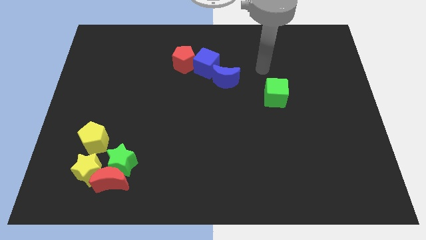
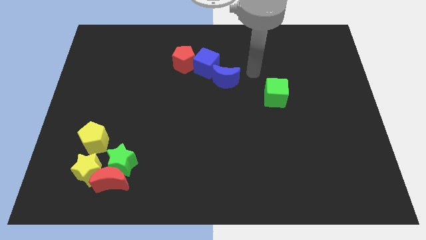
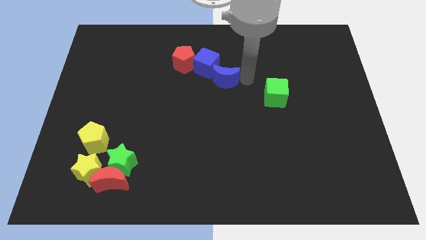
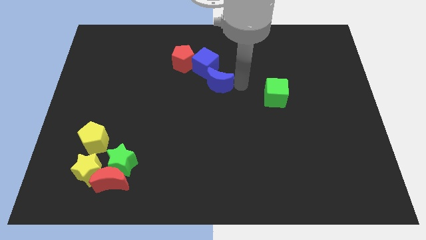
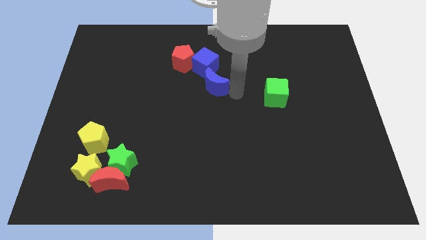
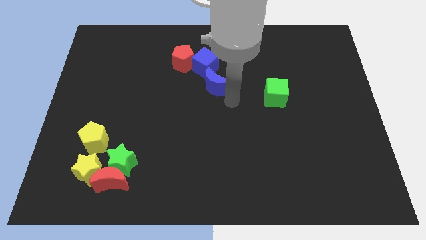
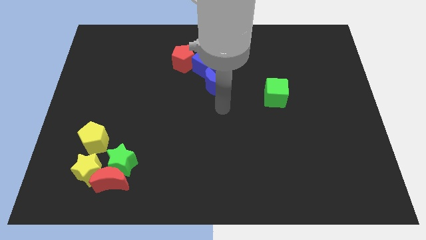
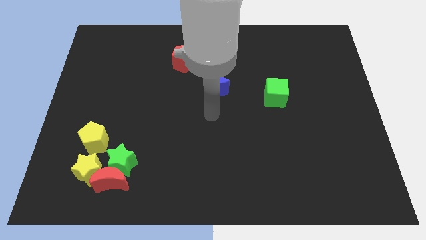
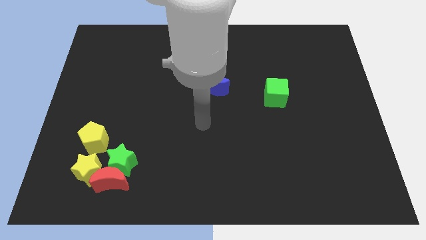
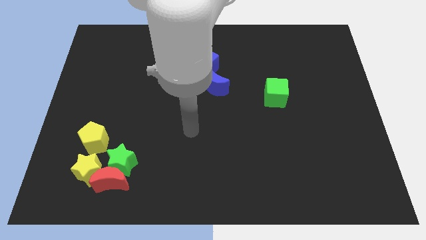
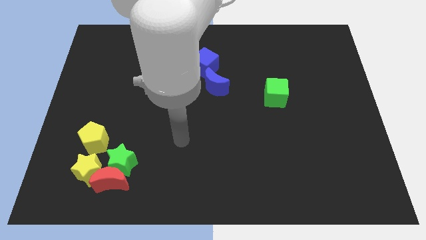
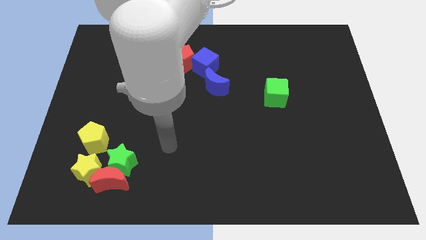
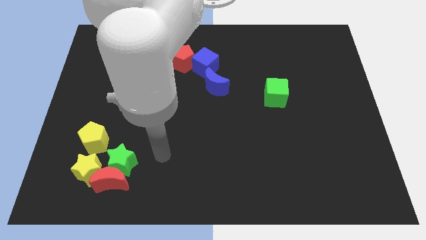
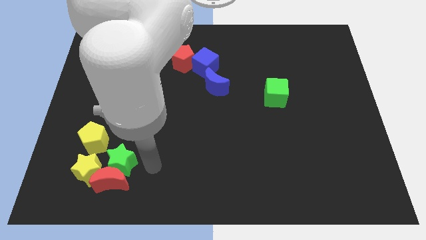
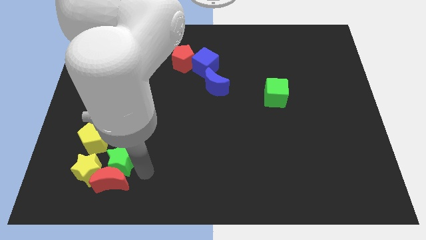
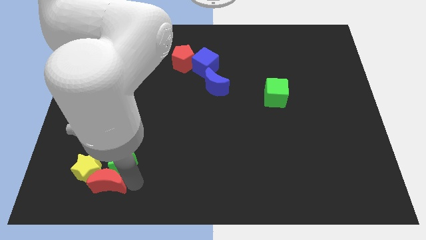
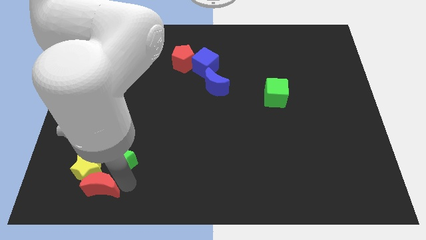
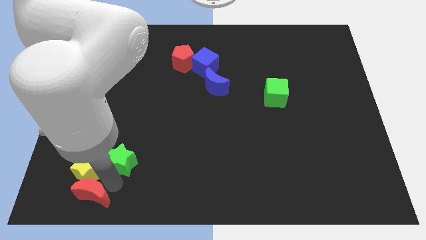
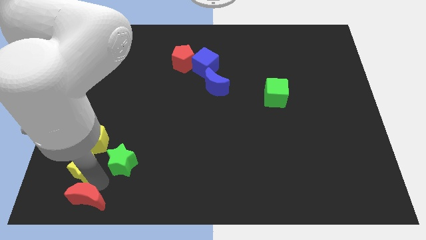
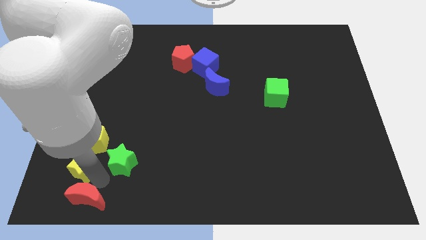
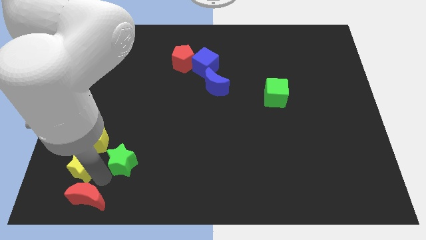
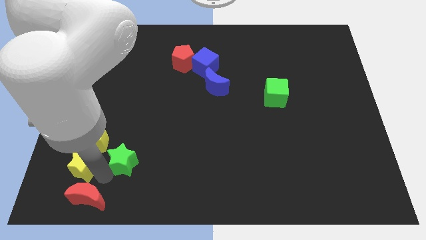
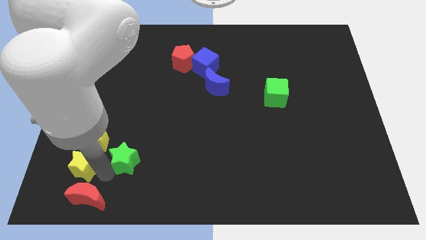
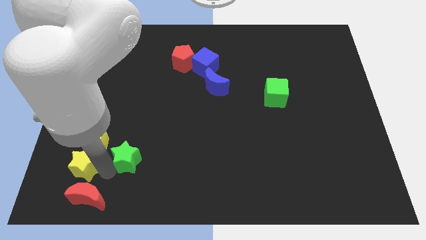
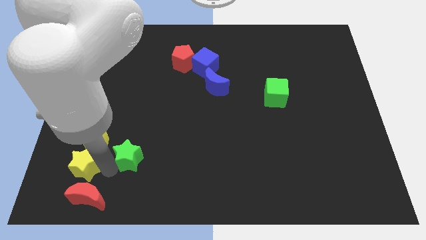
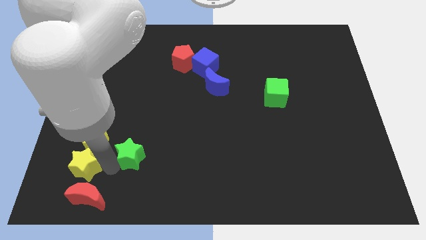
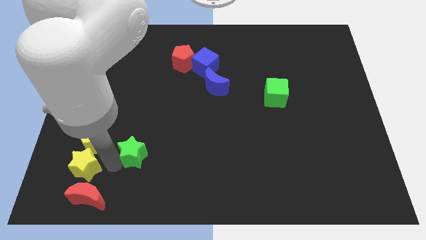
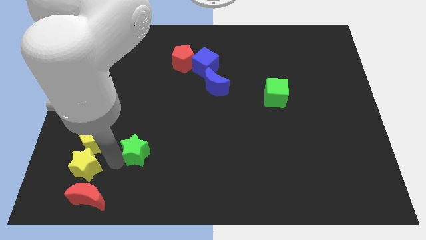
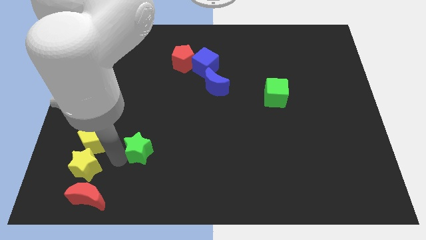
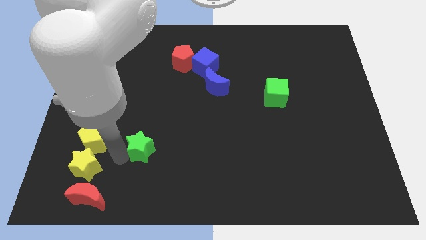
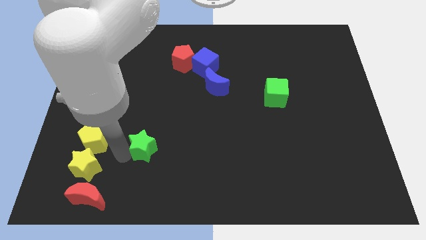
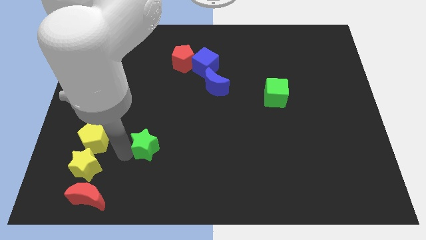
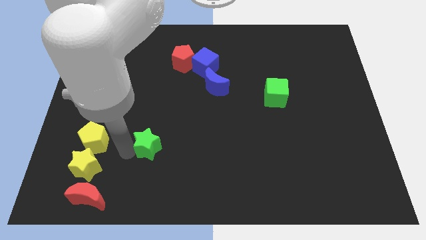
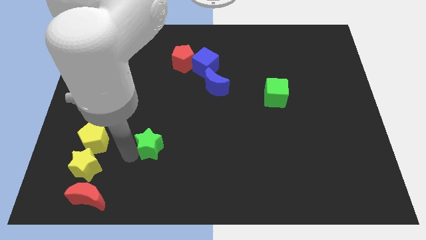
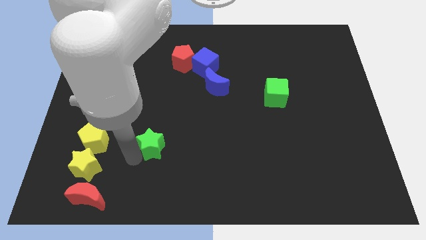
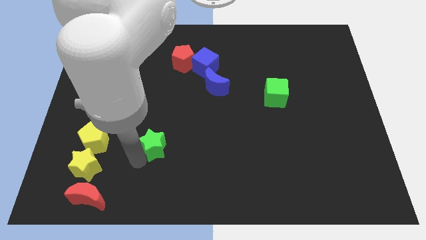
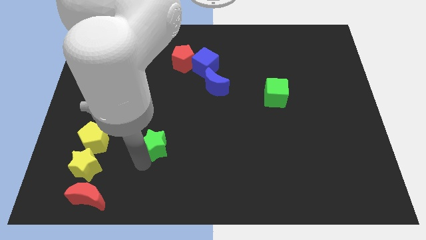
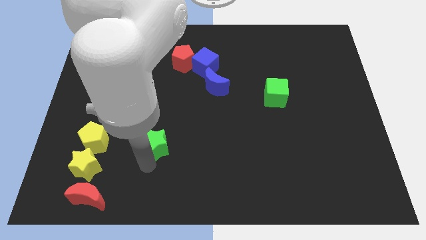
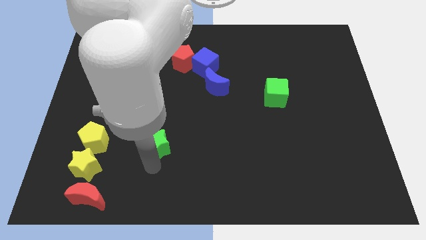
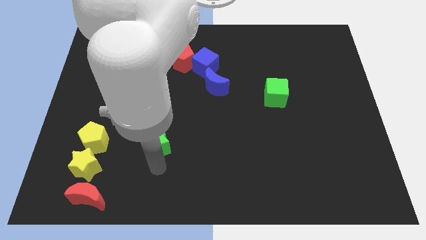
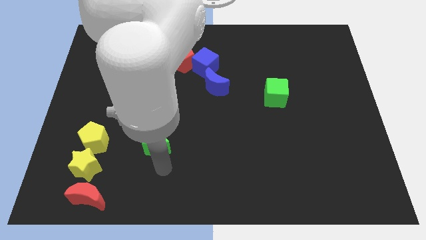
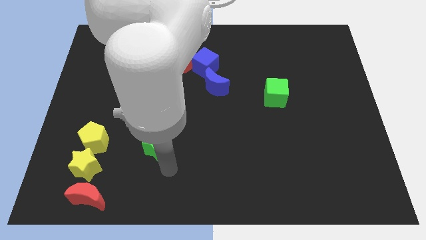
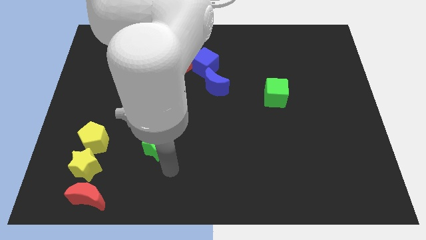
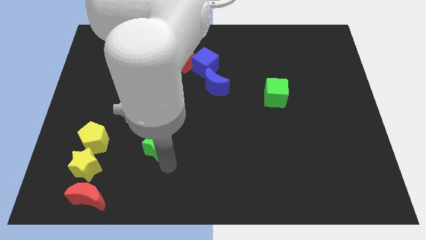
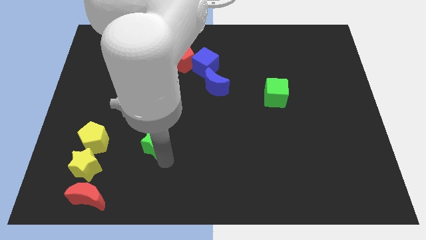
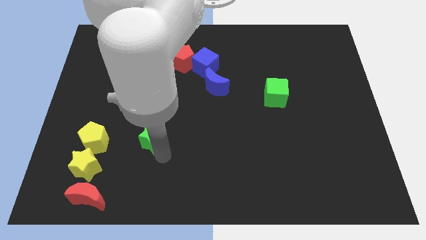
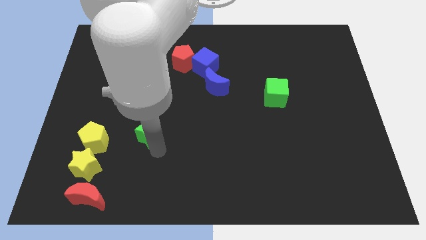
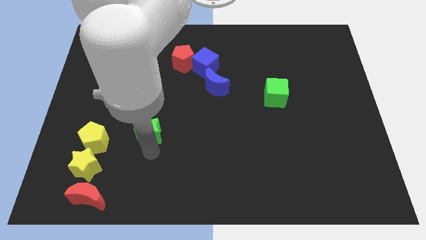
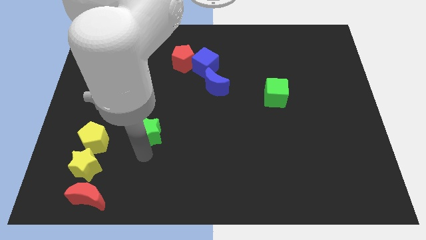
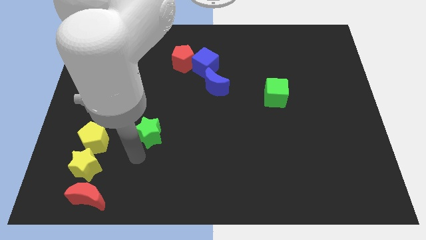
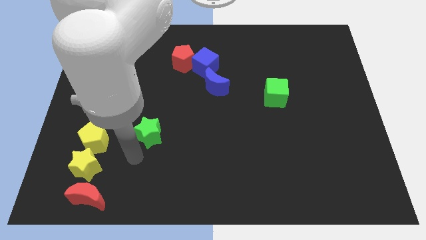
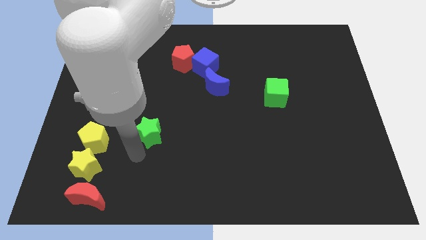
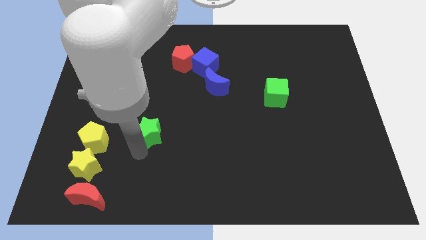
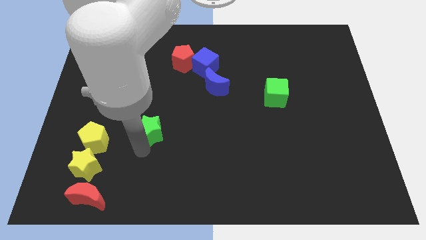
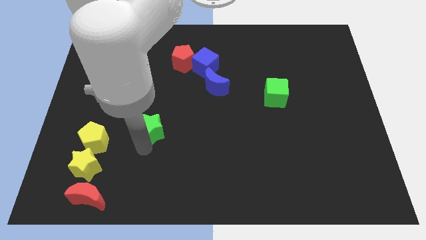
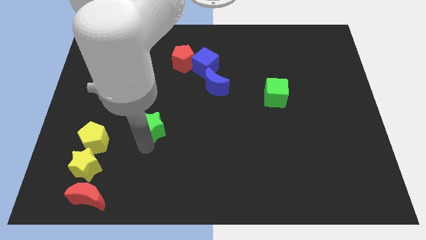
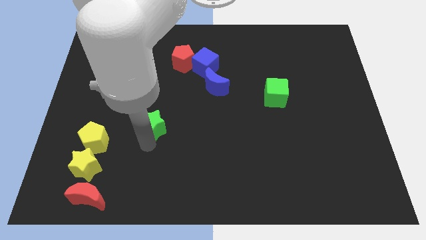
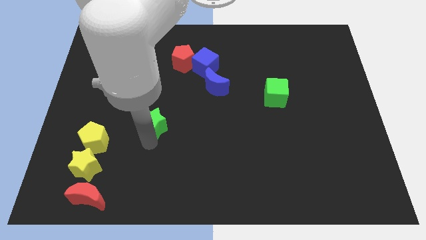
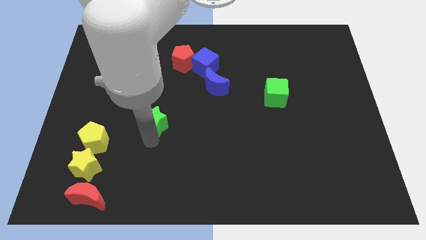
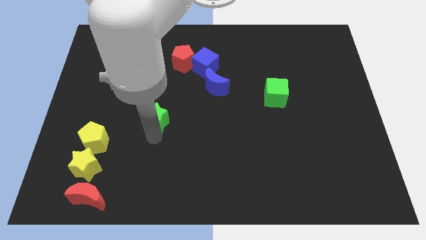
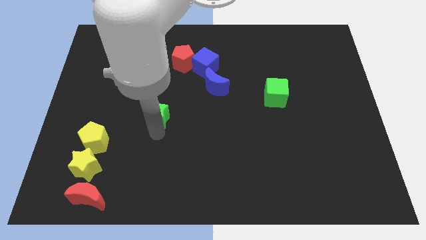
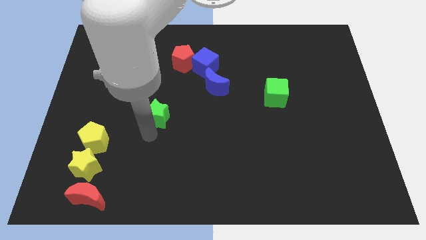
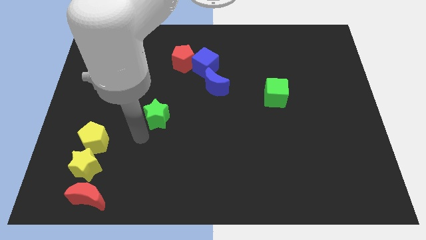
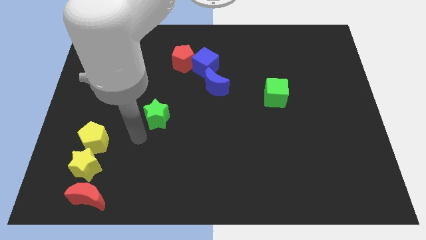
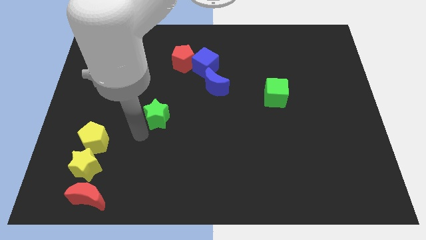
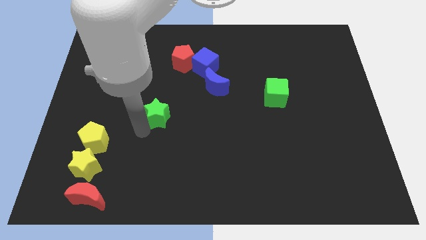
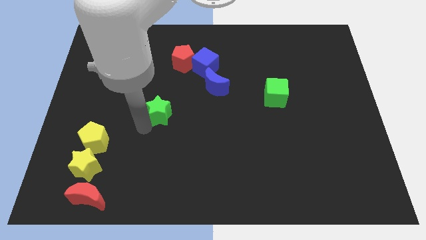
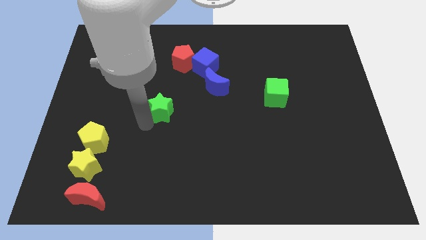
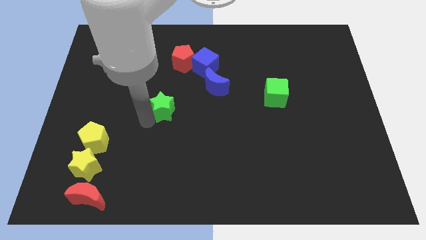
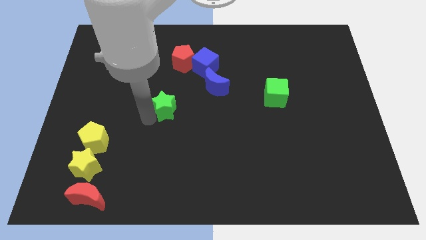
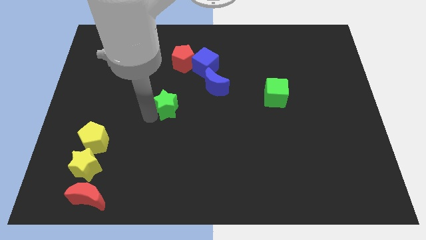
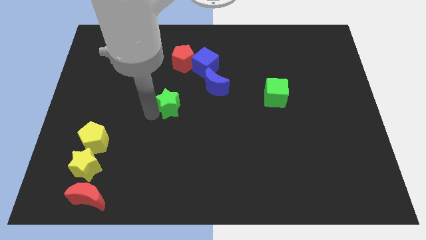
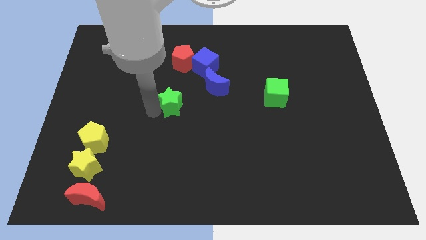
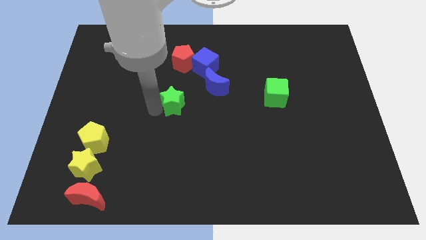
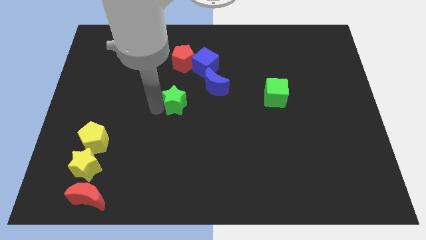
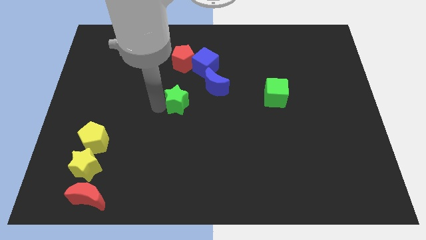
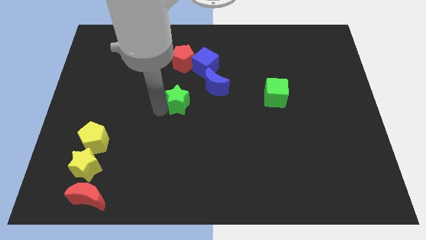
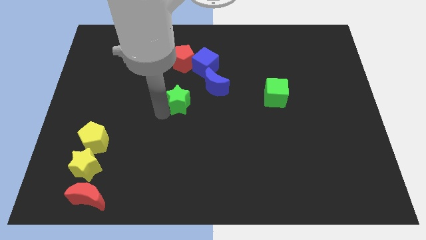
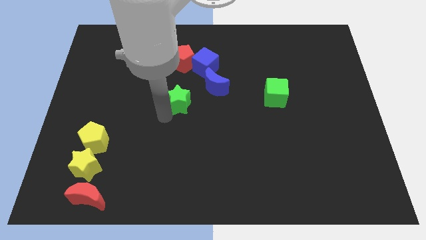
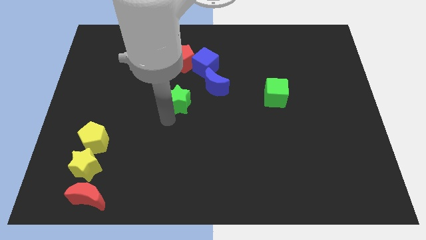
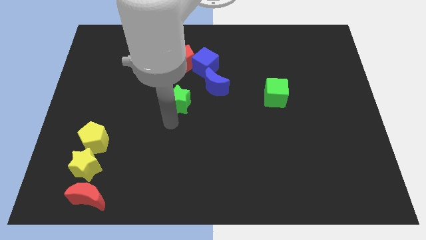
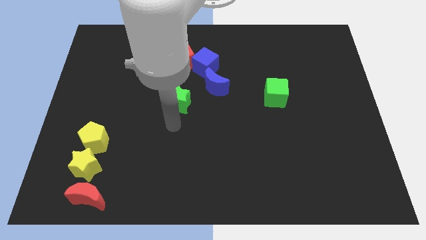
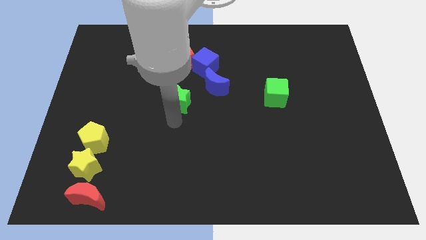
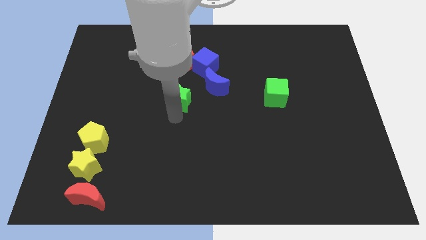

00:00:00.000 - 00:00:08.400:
slide the green star to the left of the blue moon
